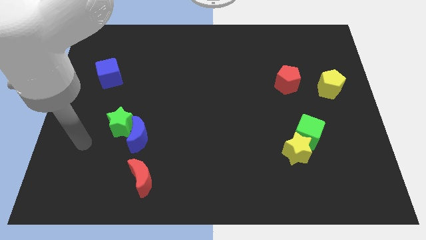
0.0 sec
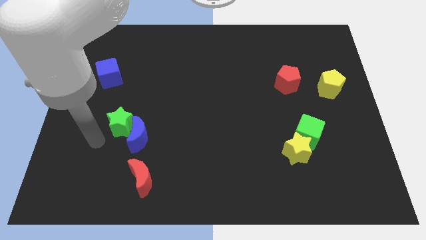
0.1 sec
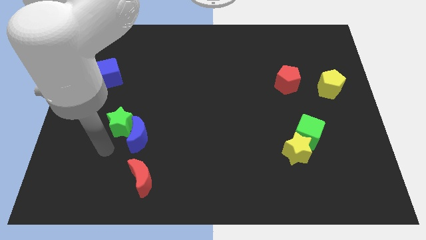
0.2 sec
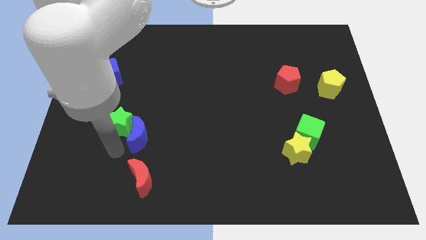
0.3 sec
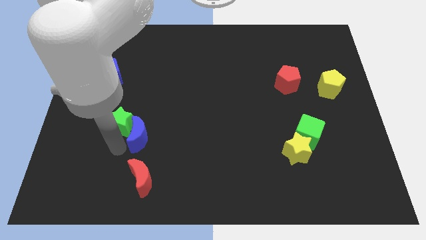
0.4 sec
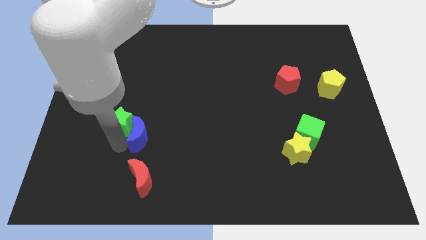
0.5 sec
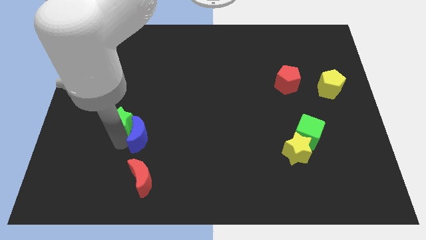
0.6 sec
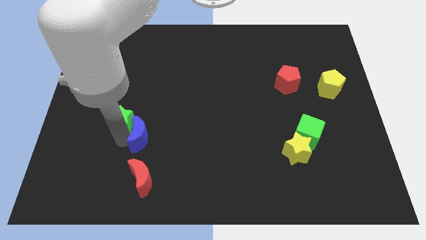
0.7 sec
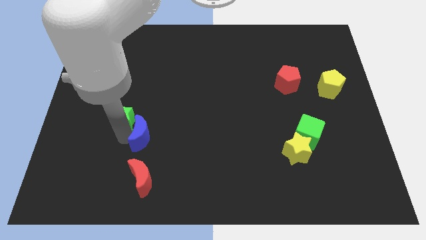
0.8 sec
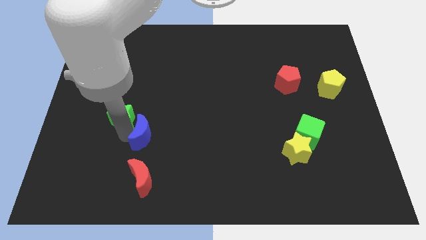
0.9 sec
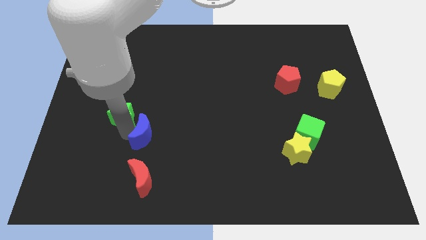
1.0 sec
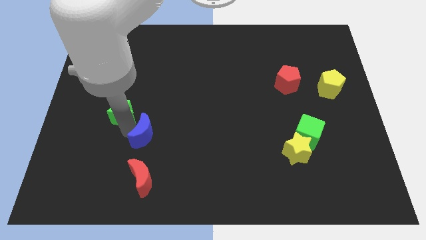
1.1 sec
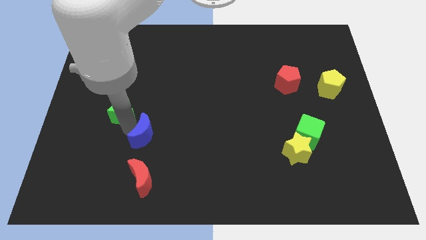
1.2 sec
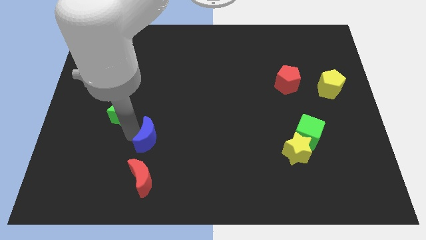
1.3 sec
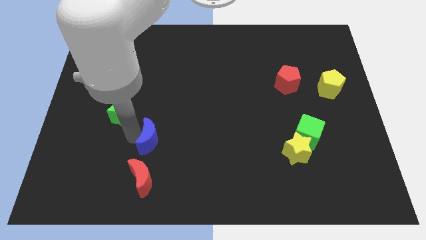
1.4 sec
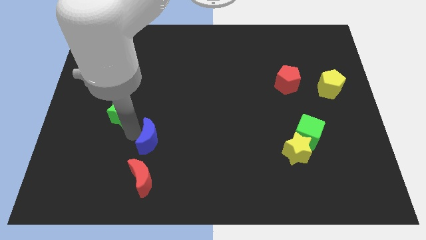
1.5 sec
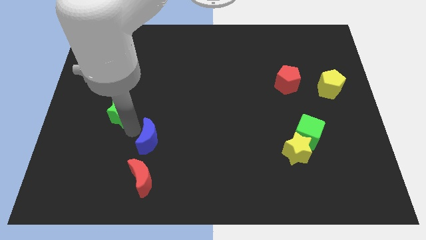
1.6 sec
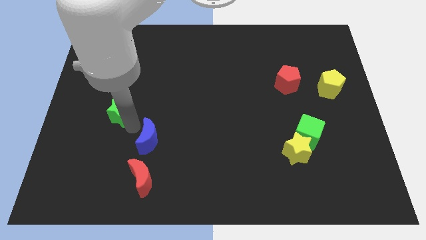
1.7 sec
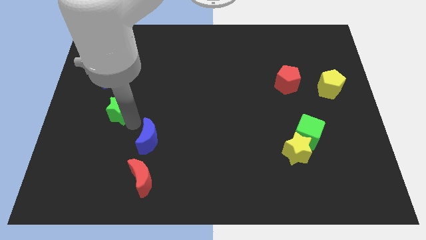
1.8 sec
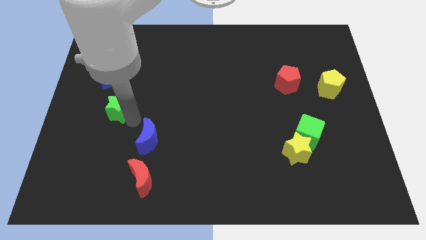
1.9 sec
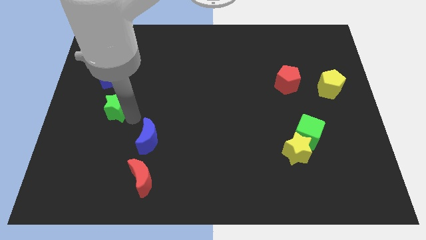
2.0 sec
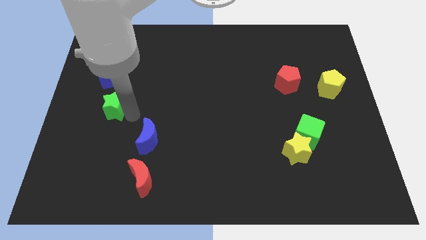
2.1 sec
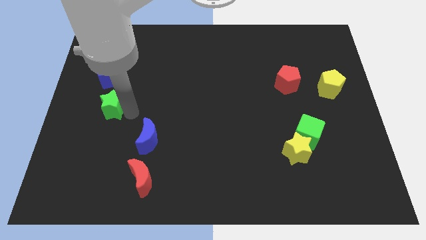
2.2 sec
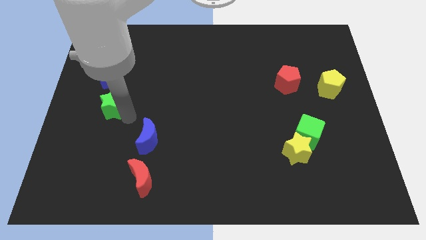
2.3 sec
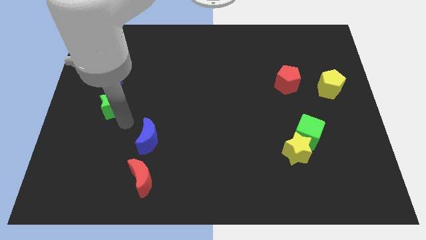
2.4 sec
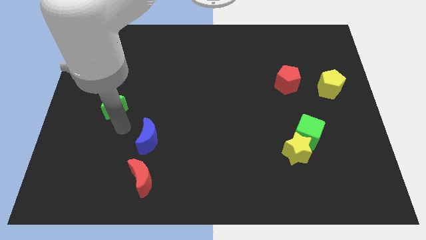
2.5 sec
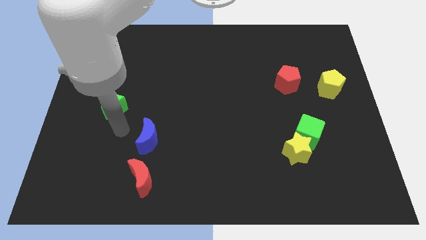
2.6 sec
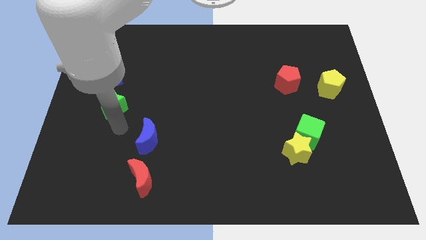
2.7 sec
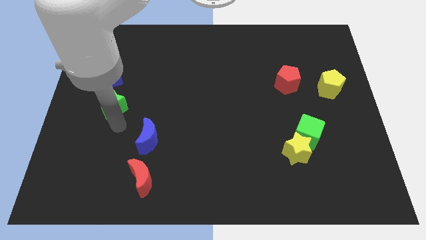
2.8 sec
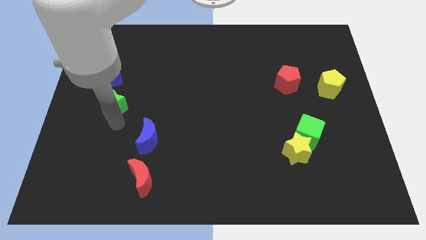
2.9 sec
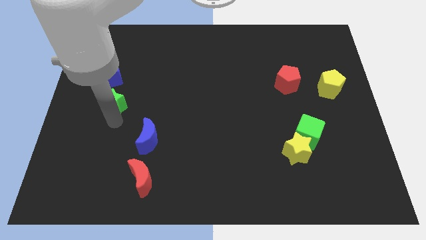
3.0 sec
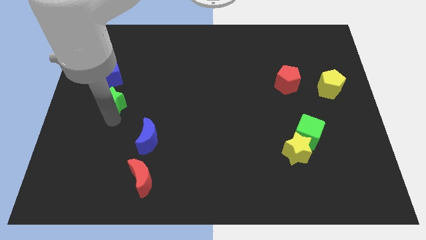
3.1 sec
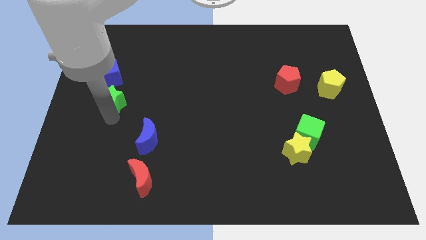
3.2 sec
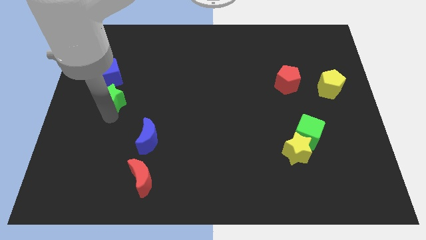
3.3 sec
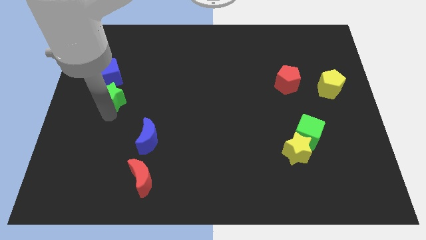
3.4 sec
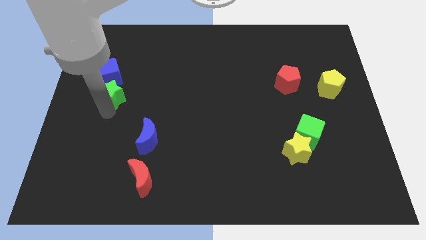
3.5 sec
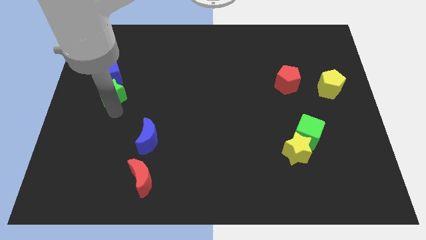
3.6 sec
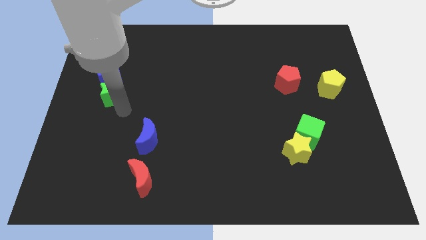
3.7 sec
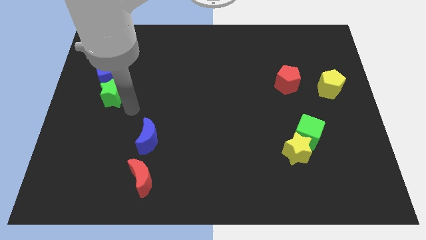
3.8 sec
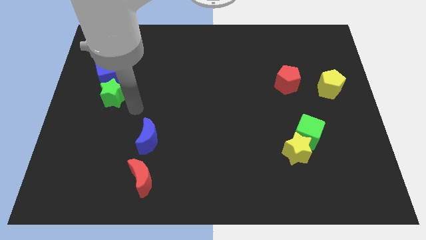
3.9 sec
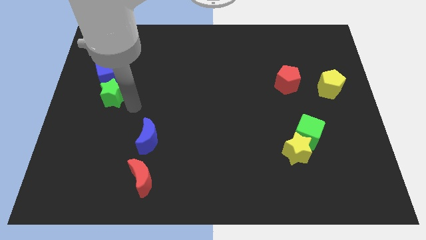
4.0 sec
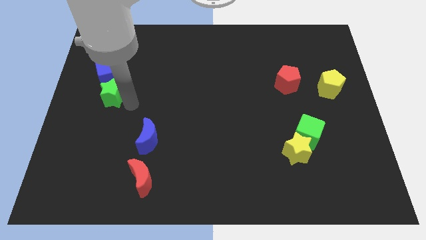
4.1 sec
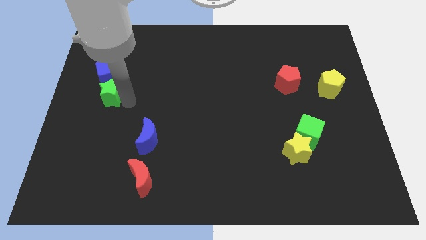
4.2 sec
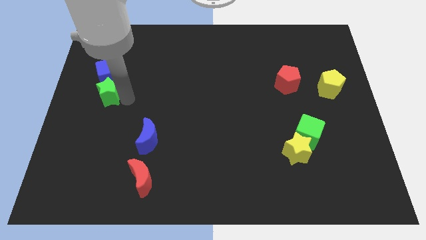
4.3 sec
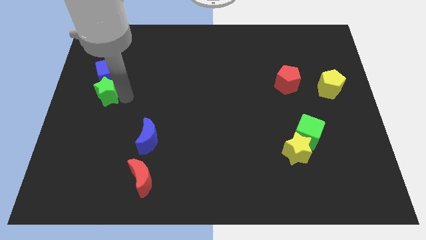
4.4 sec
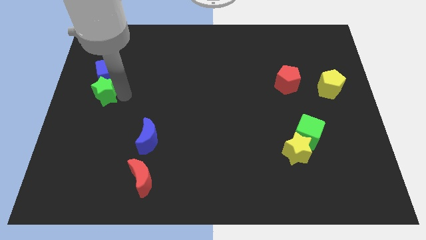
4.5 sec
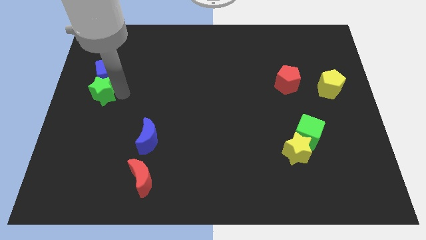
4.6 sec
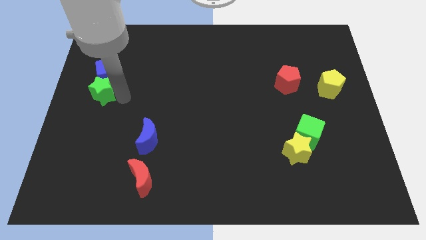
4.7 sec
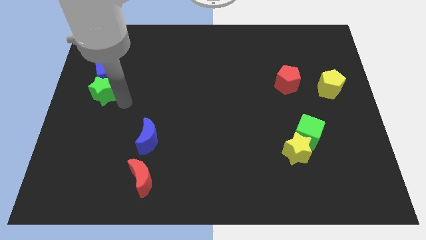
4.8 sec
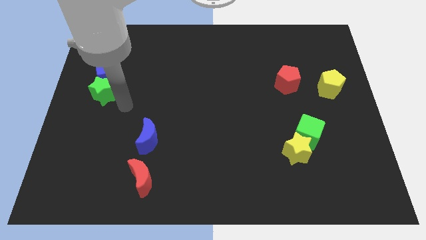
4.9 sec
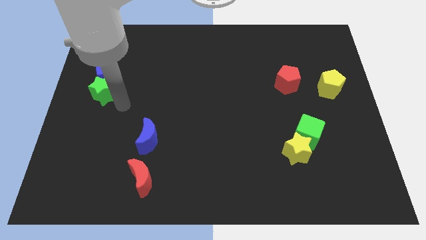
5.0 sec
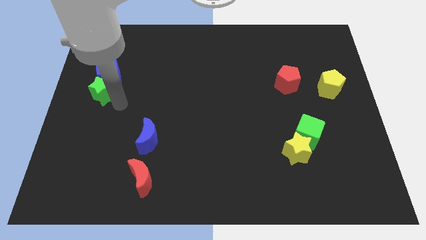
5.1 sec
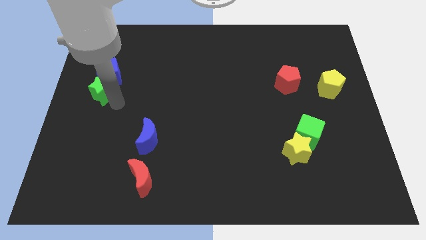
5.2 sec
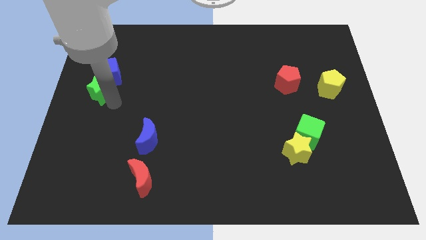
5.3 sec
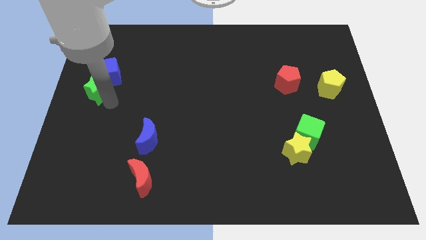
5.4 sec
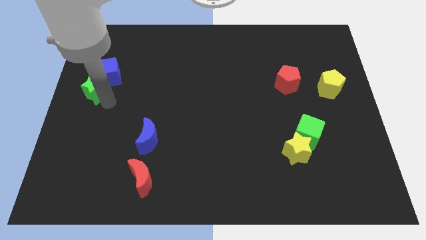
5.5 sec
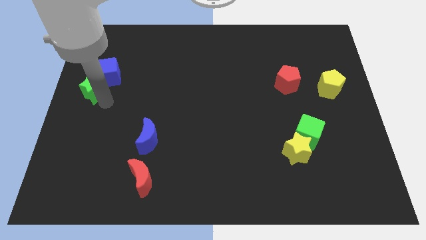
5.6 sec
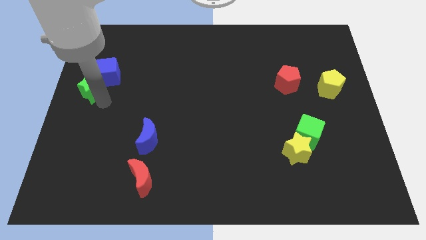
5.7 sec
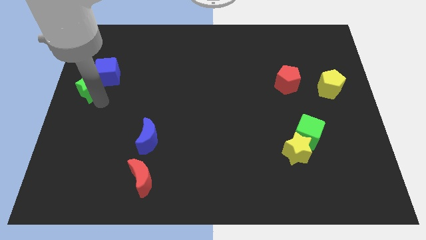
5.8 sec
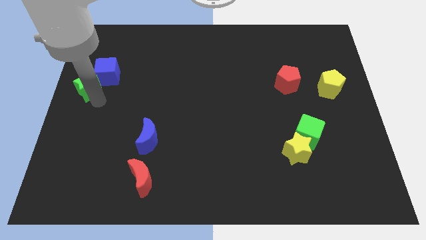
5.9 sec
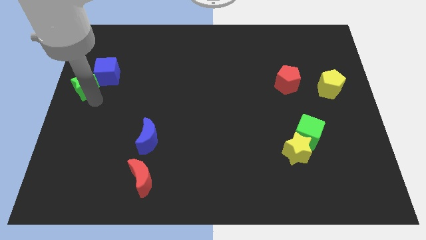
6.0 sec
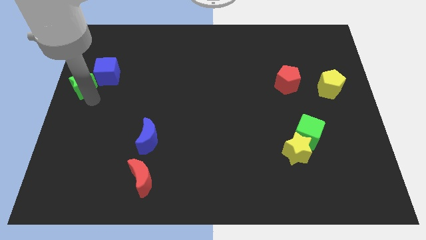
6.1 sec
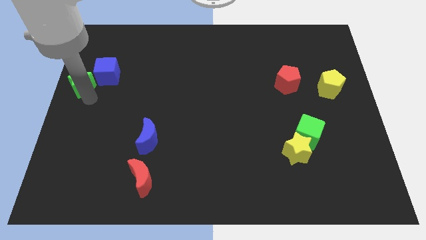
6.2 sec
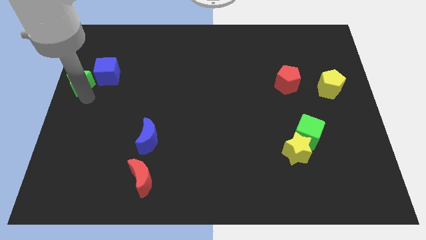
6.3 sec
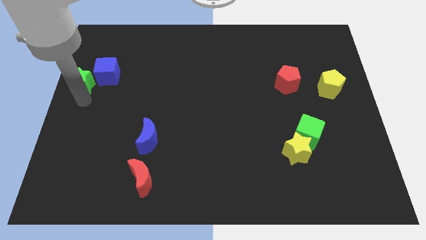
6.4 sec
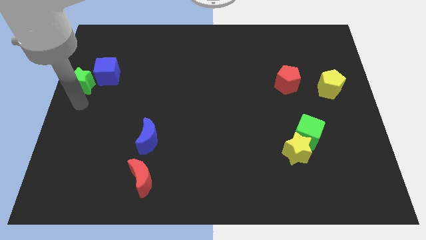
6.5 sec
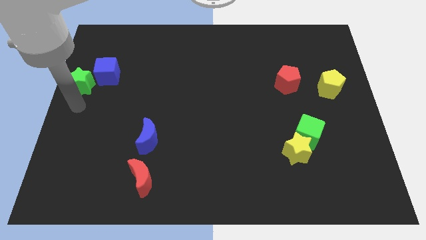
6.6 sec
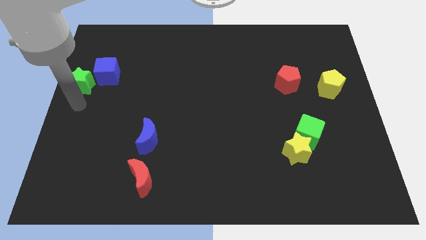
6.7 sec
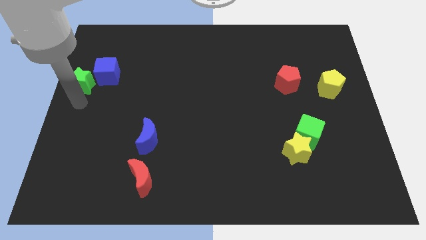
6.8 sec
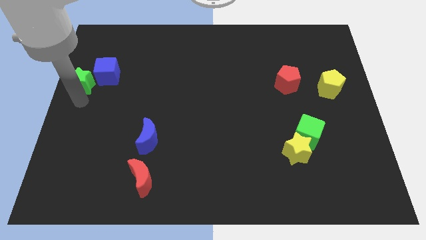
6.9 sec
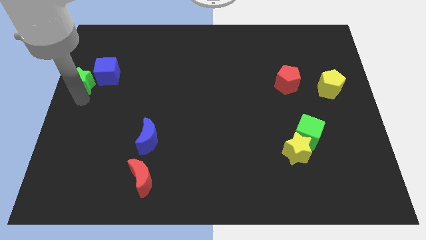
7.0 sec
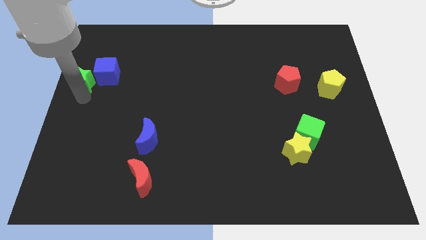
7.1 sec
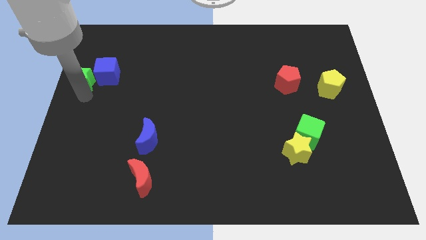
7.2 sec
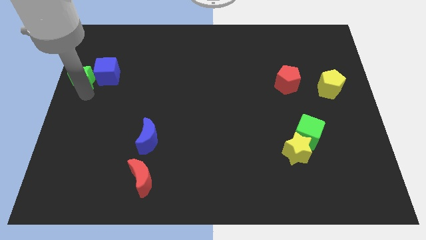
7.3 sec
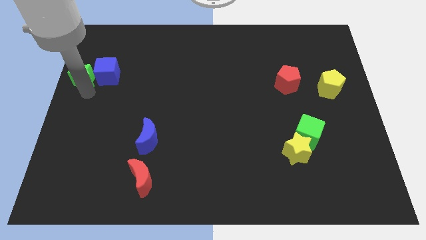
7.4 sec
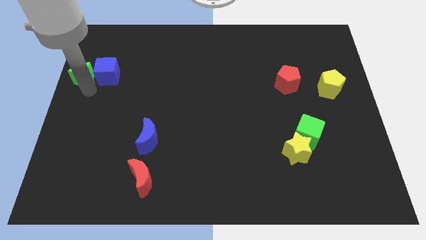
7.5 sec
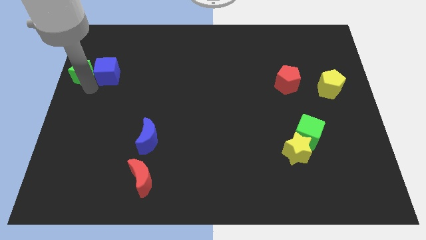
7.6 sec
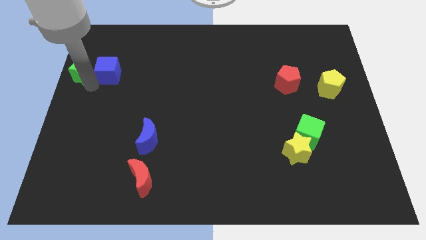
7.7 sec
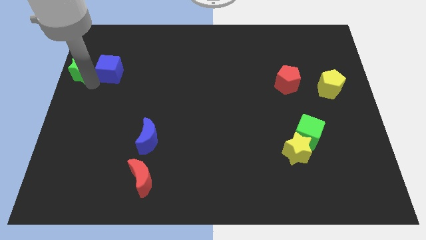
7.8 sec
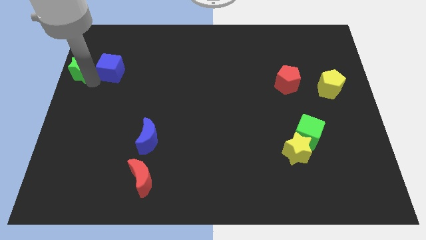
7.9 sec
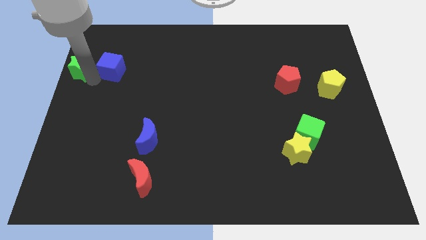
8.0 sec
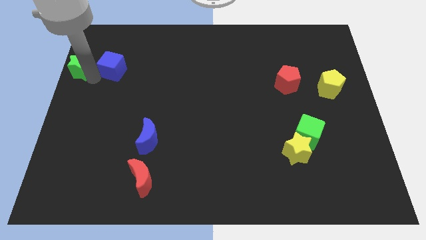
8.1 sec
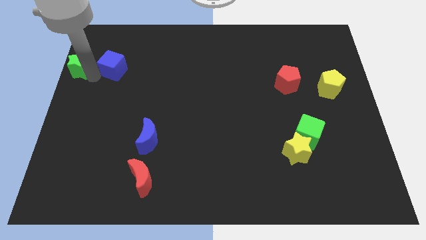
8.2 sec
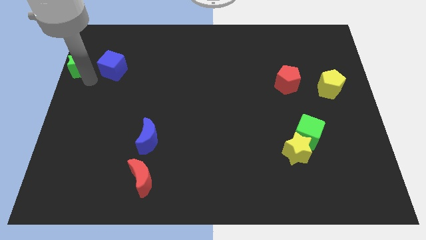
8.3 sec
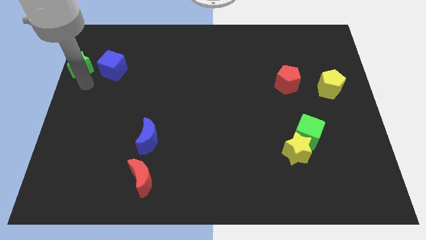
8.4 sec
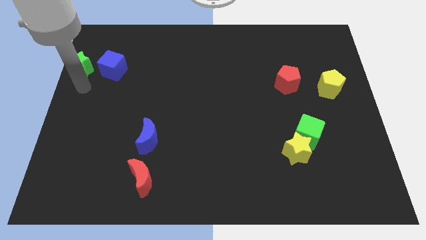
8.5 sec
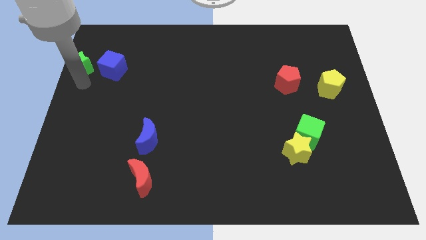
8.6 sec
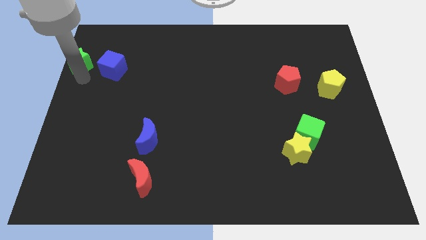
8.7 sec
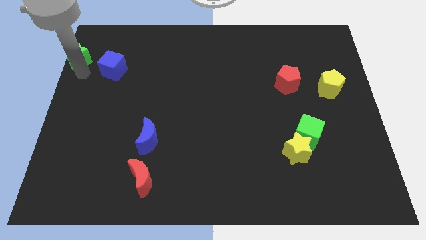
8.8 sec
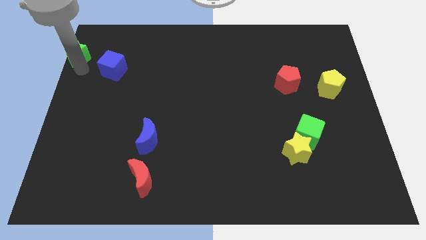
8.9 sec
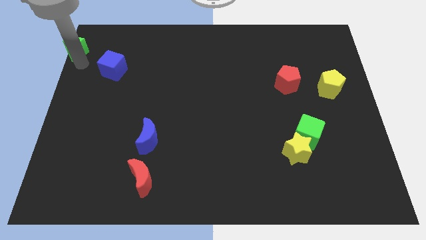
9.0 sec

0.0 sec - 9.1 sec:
move the green star to the top left of the board
